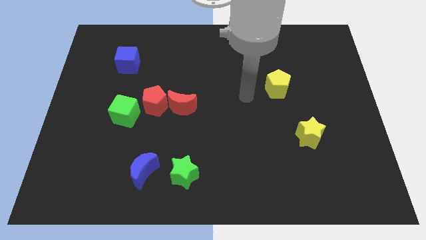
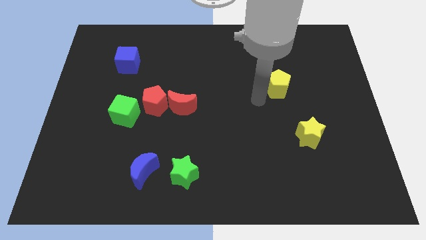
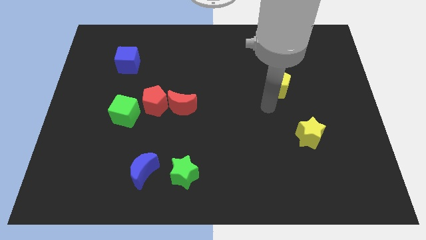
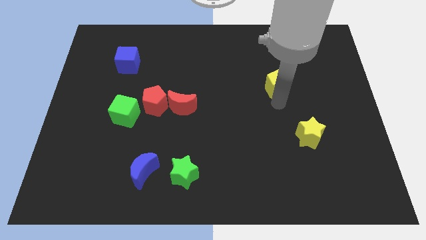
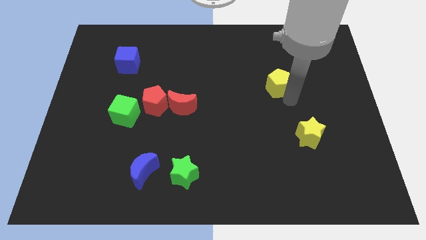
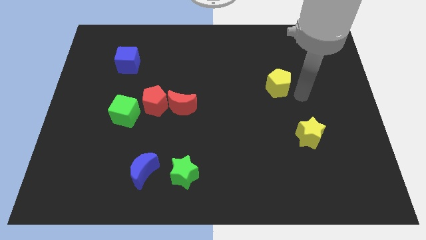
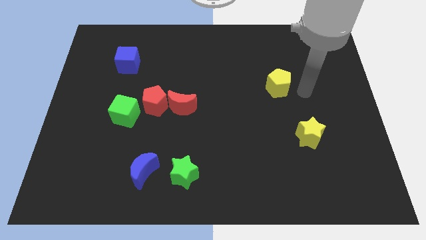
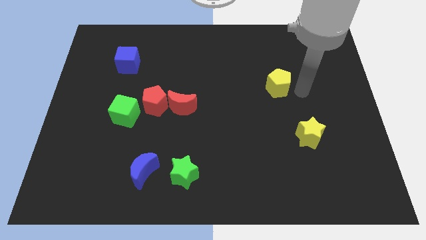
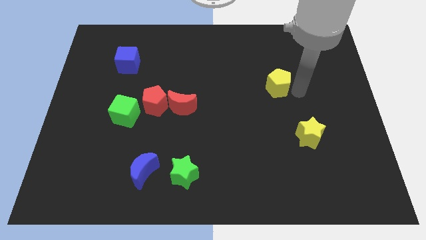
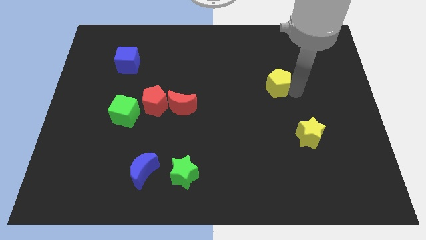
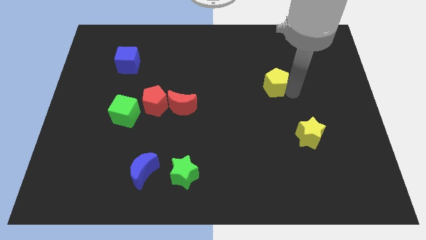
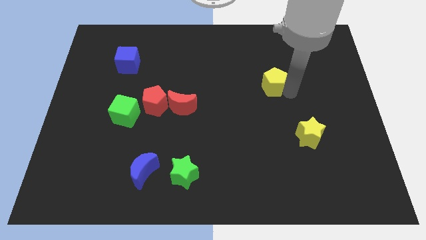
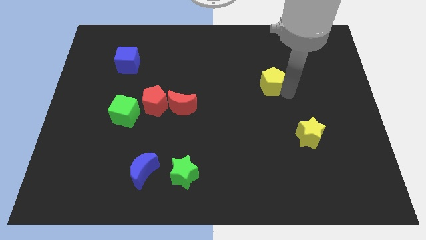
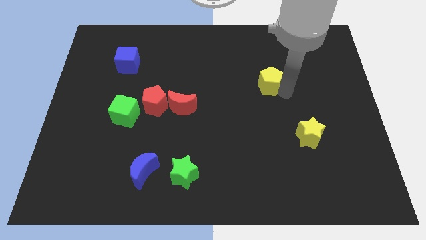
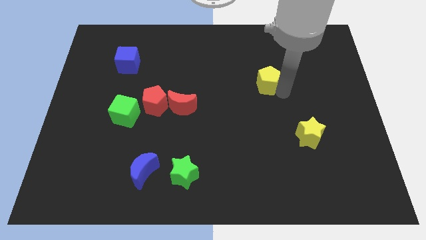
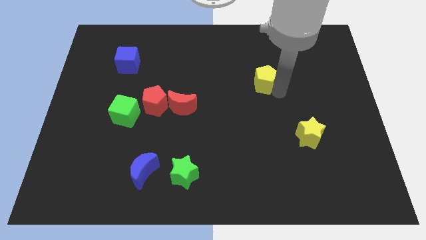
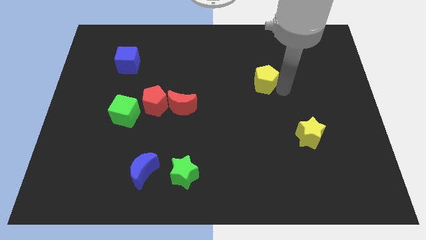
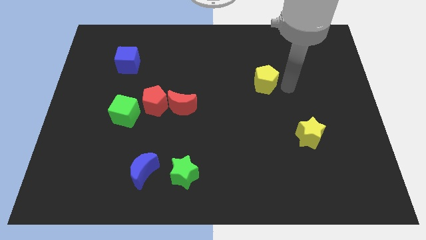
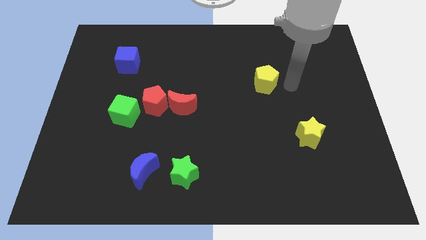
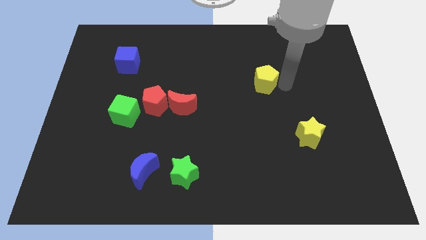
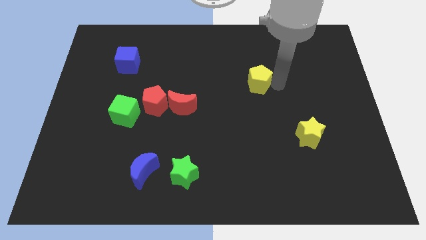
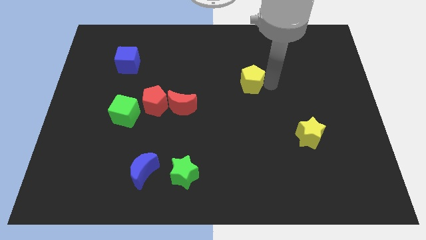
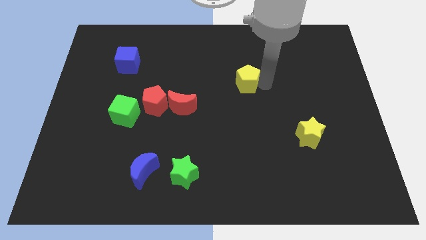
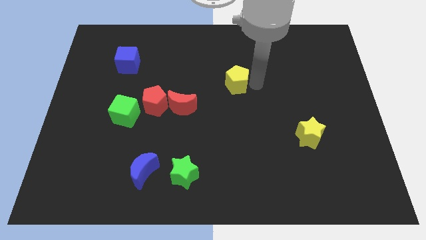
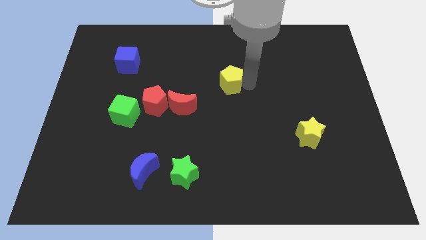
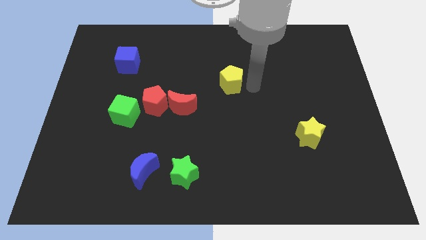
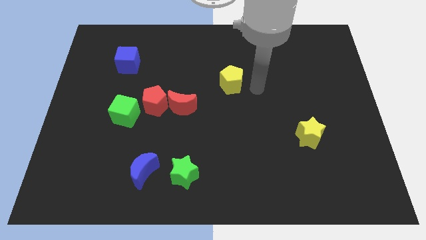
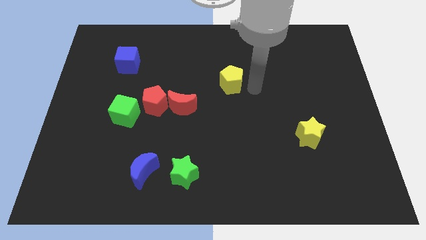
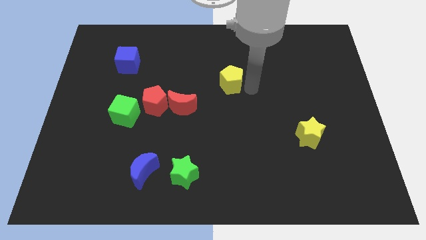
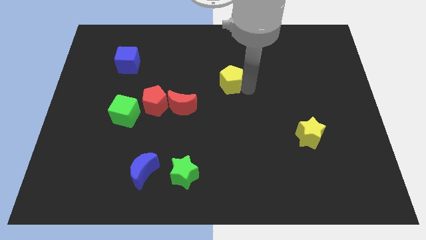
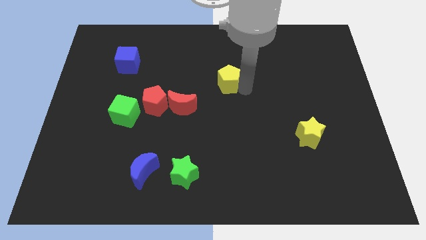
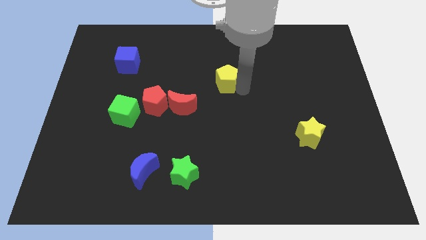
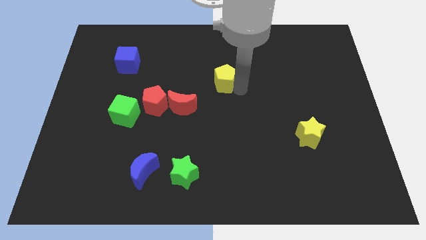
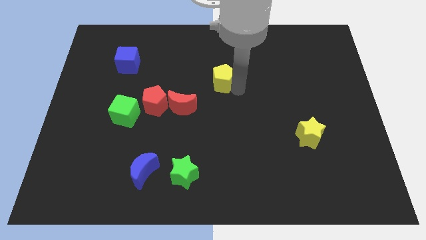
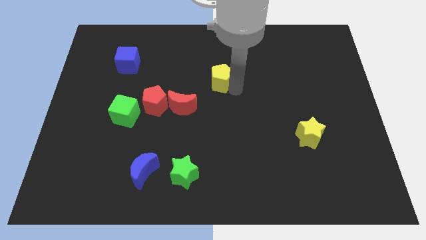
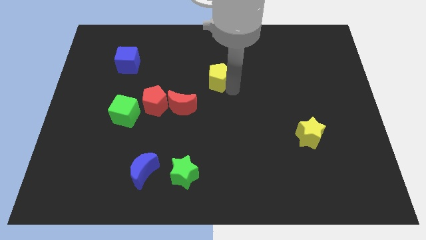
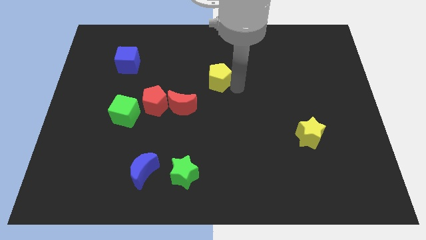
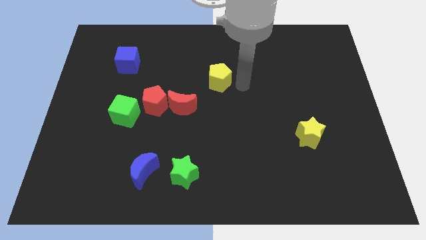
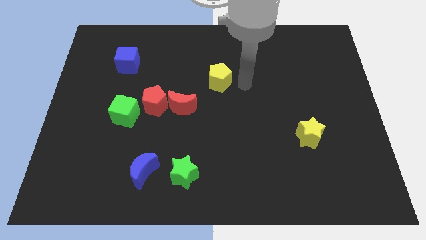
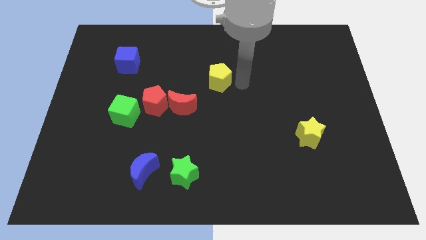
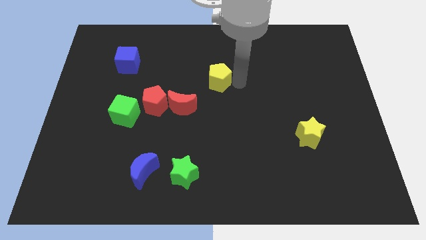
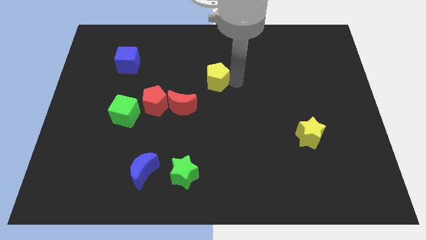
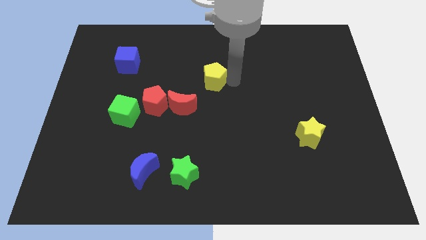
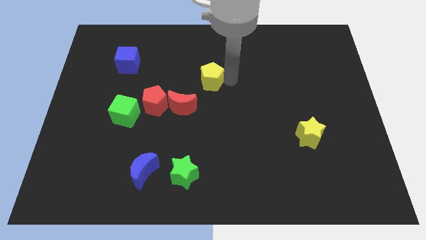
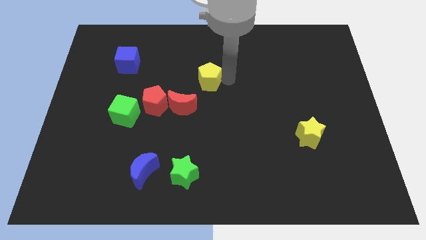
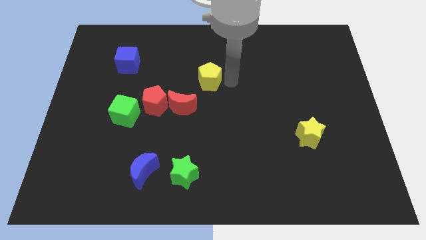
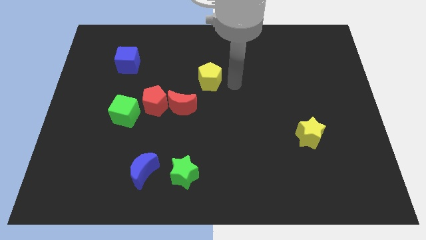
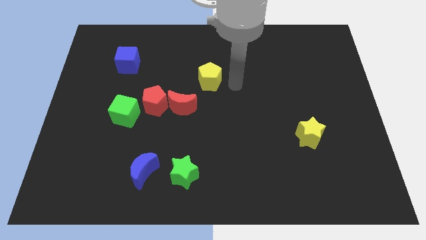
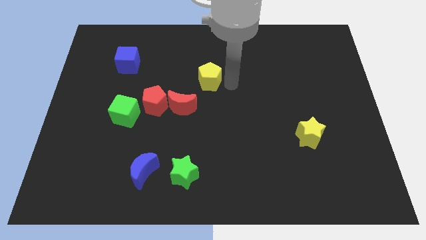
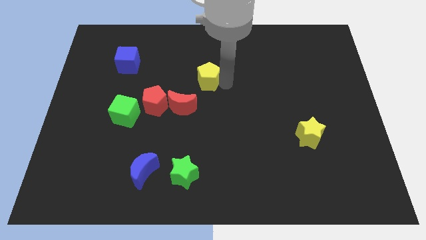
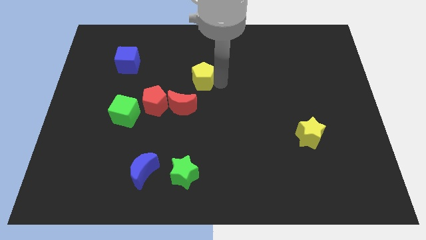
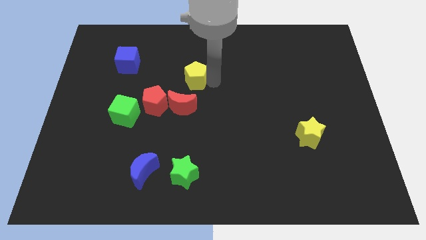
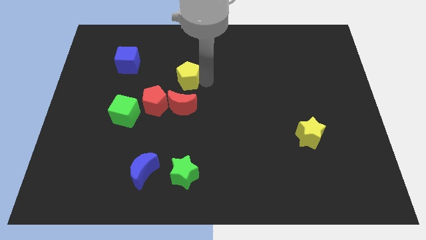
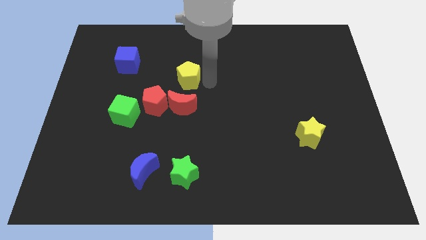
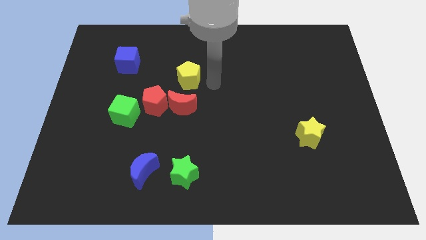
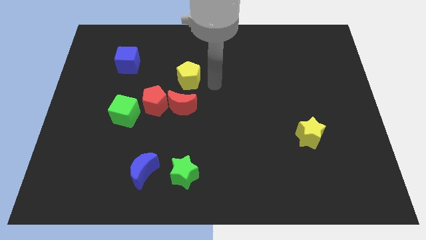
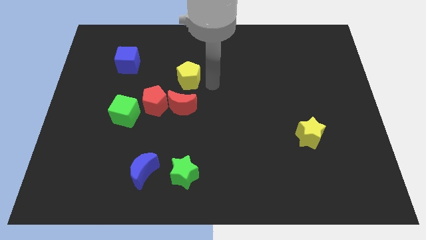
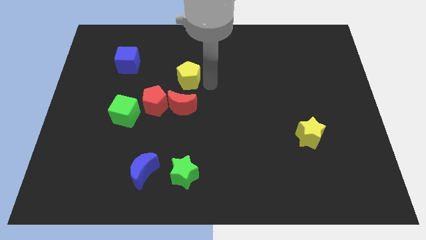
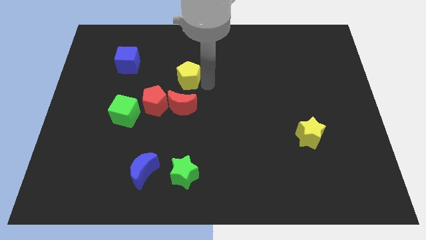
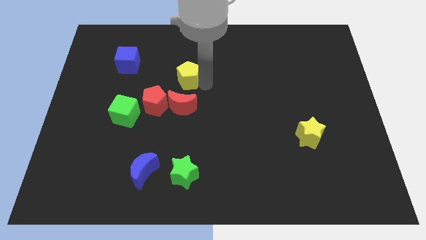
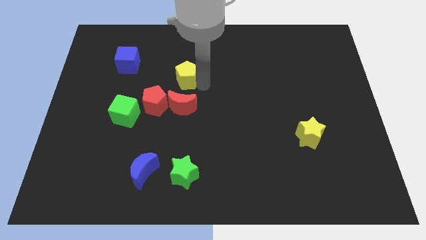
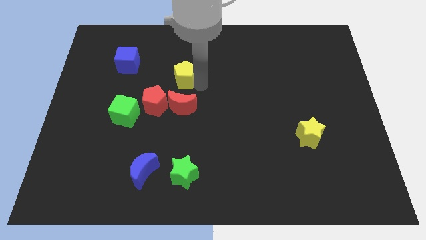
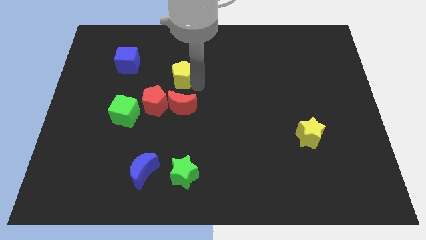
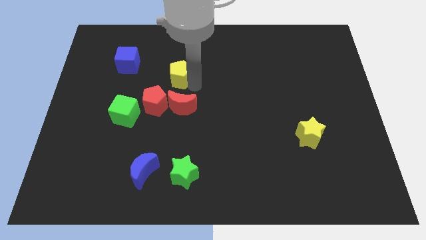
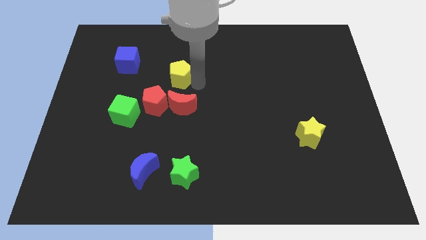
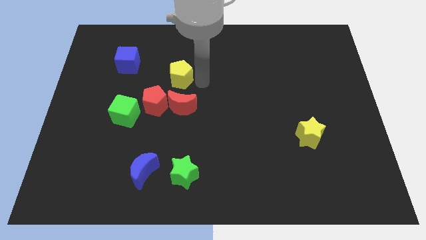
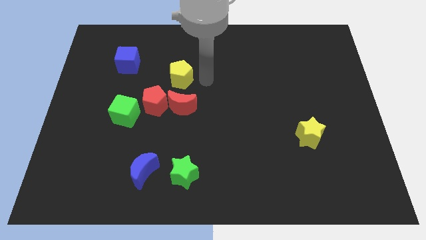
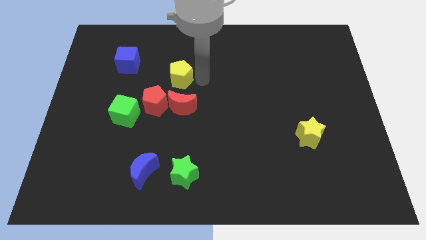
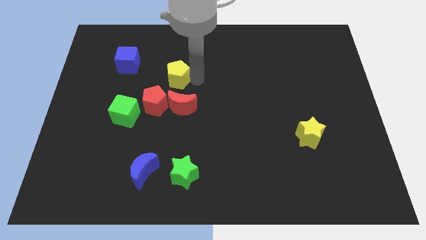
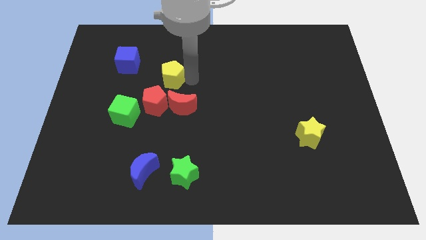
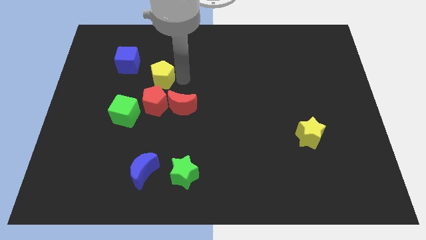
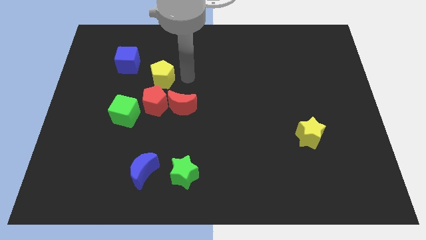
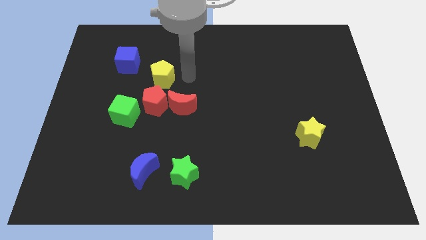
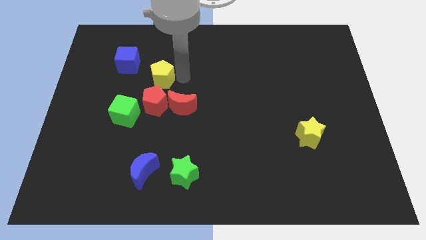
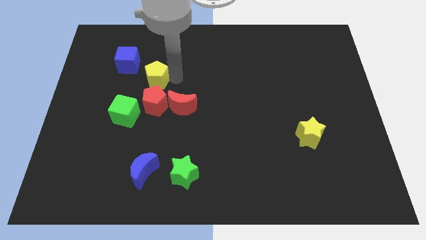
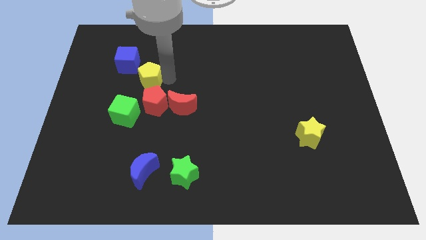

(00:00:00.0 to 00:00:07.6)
move the yellow pentagon to the top of the green cube
